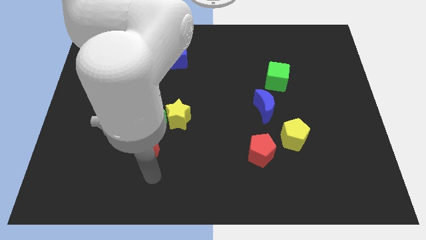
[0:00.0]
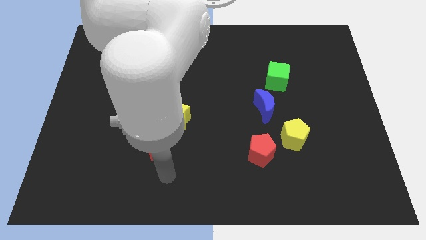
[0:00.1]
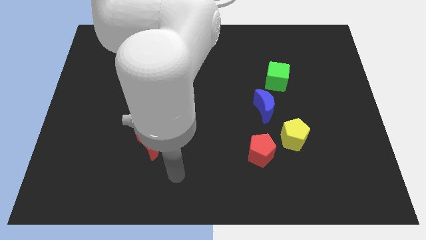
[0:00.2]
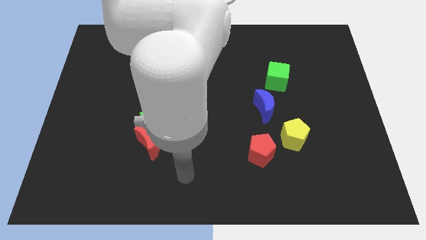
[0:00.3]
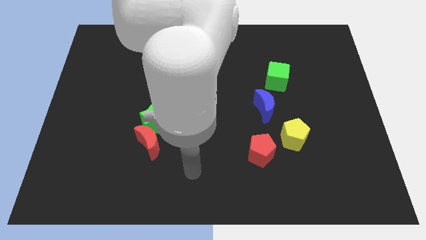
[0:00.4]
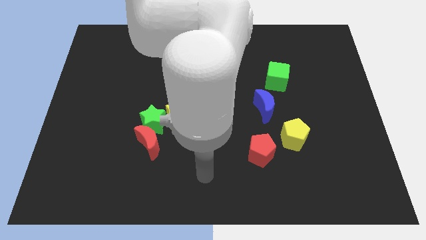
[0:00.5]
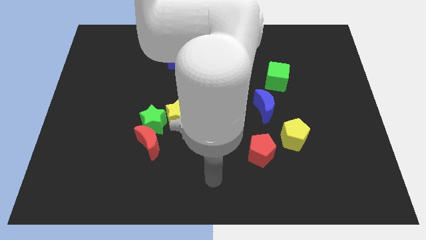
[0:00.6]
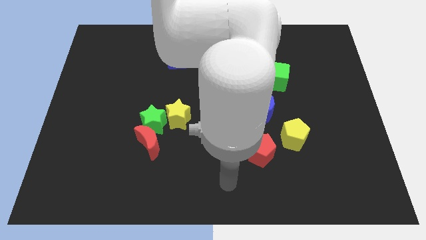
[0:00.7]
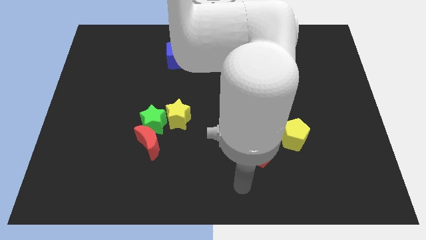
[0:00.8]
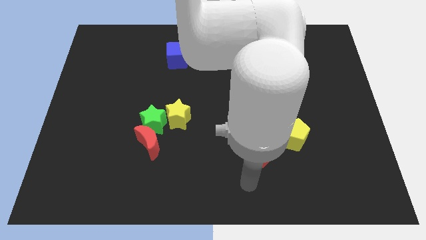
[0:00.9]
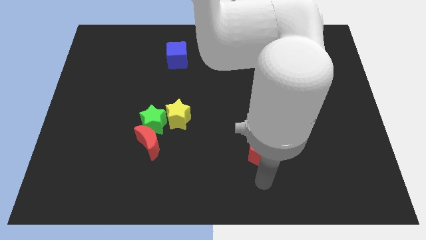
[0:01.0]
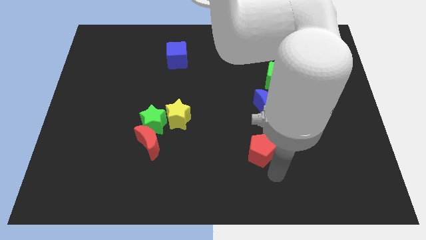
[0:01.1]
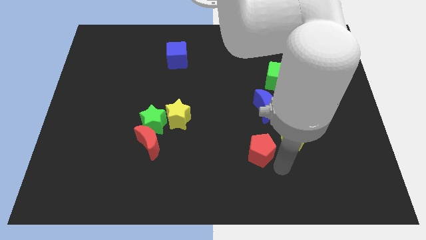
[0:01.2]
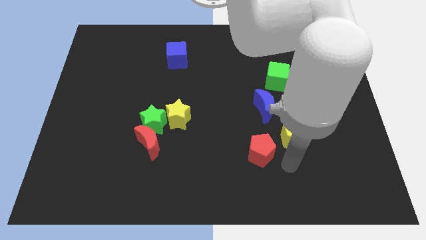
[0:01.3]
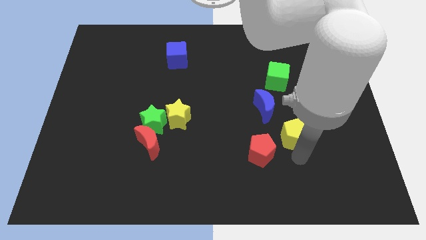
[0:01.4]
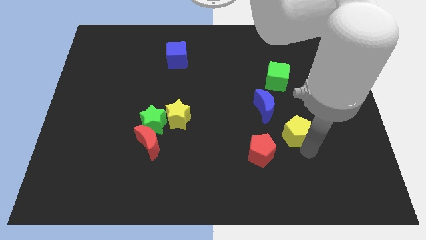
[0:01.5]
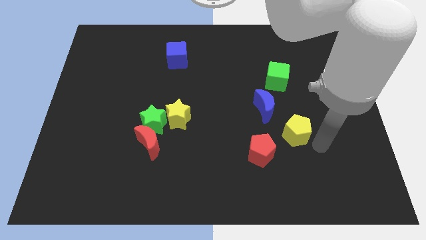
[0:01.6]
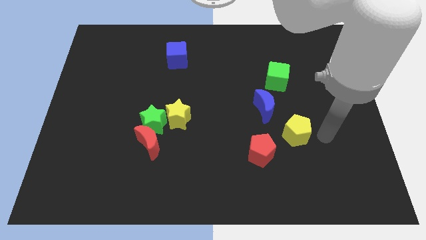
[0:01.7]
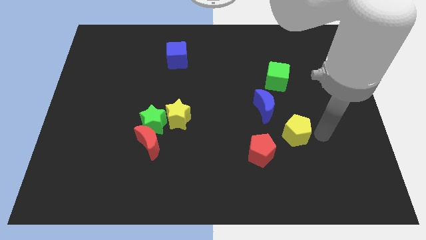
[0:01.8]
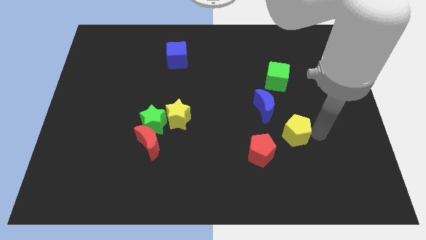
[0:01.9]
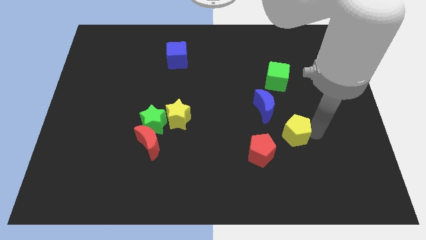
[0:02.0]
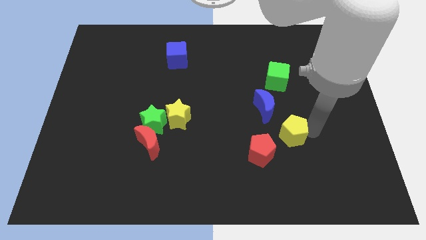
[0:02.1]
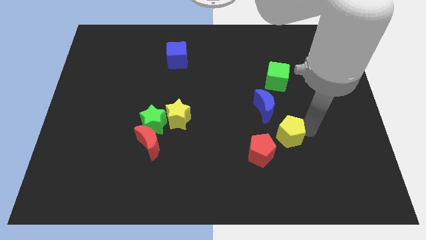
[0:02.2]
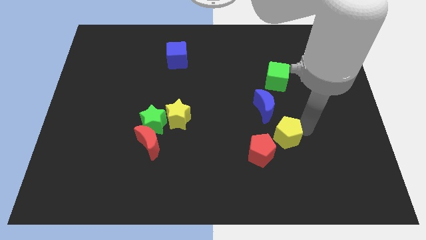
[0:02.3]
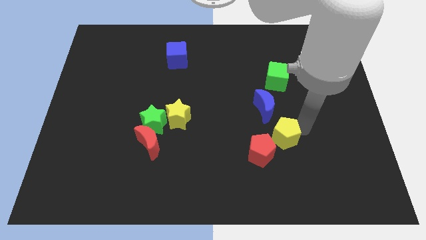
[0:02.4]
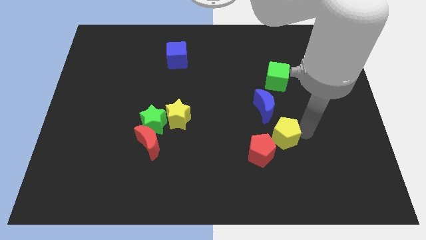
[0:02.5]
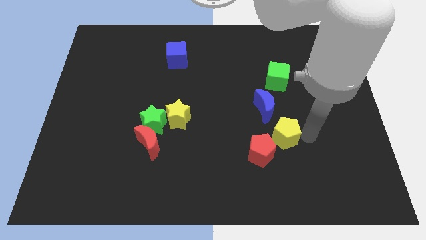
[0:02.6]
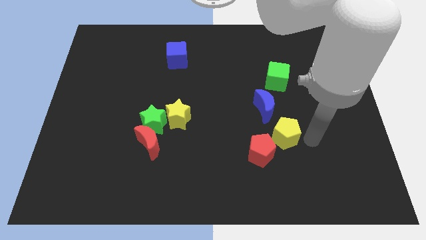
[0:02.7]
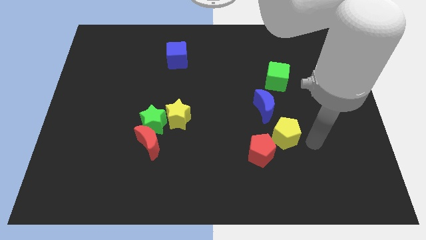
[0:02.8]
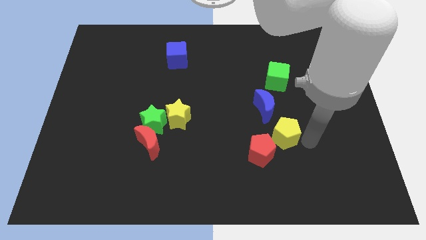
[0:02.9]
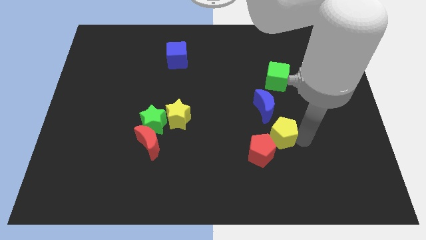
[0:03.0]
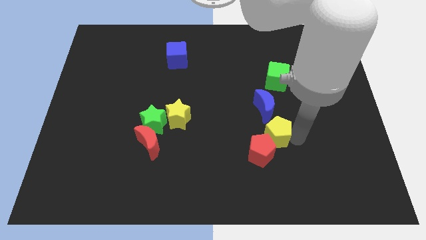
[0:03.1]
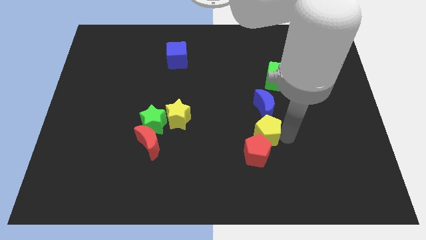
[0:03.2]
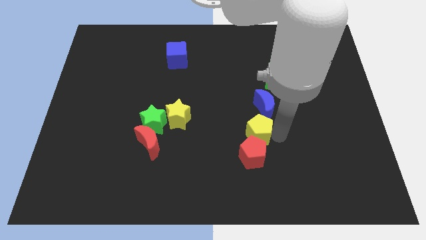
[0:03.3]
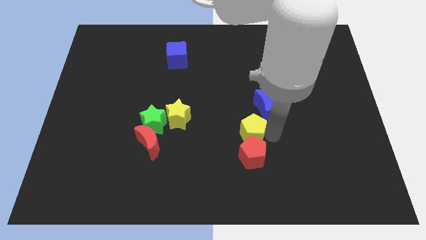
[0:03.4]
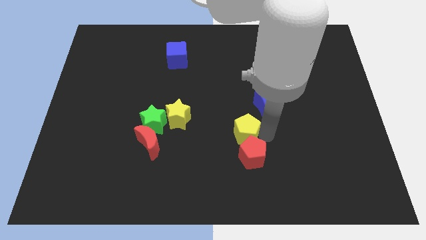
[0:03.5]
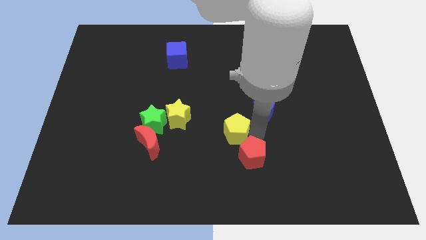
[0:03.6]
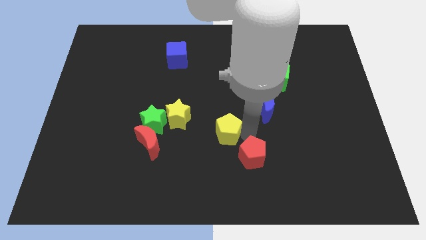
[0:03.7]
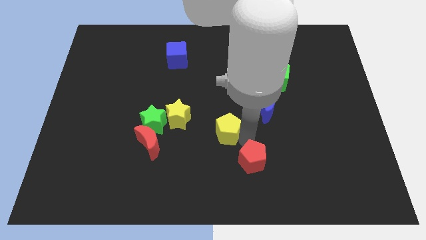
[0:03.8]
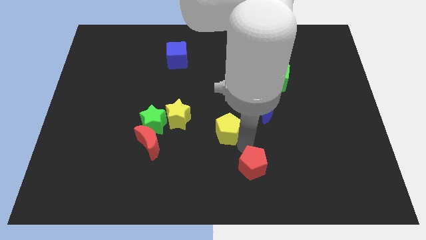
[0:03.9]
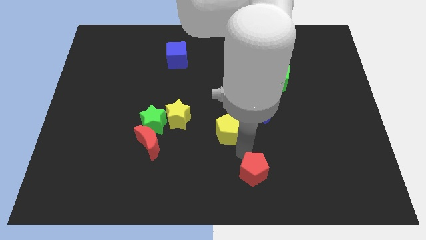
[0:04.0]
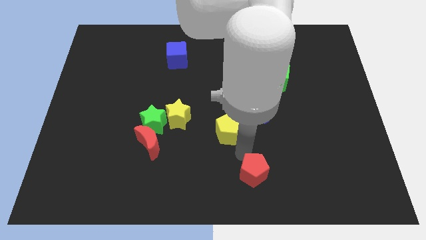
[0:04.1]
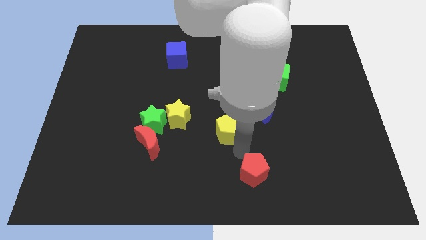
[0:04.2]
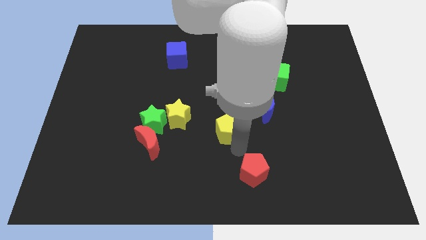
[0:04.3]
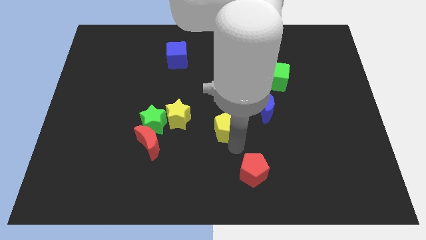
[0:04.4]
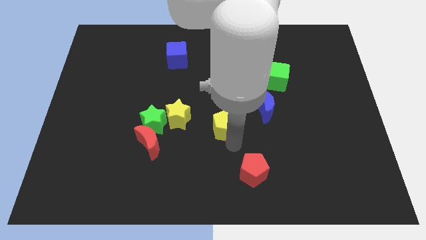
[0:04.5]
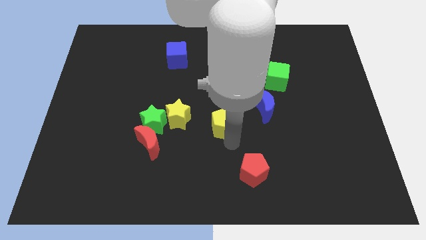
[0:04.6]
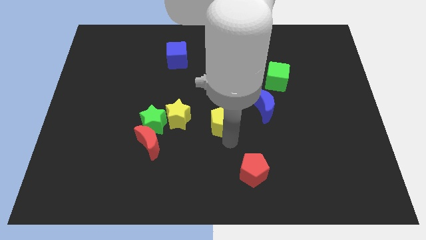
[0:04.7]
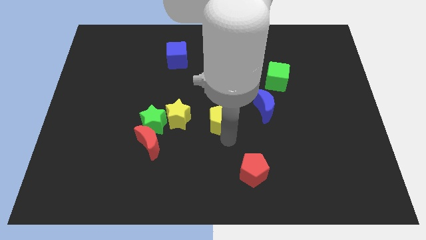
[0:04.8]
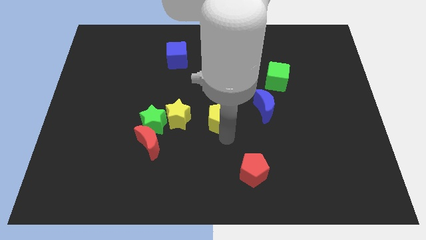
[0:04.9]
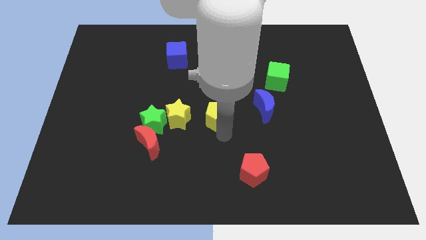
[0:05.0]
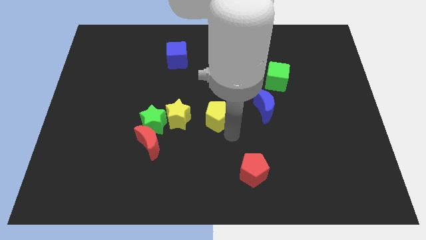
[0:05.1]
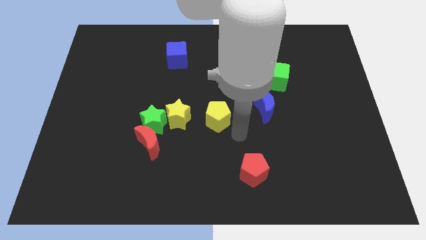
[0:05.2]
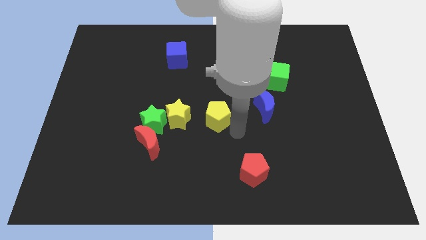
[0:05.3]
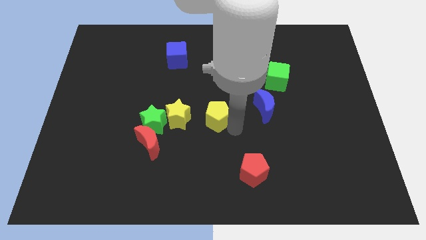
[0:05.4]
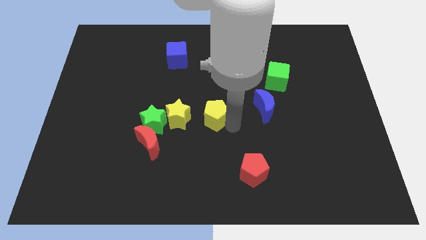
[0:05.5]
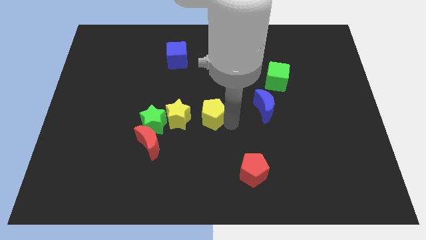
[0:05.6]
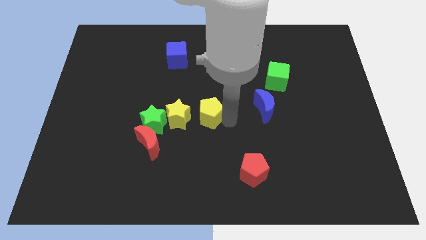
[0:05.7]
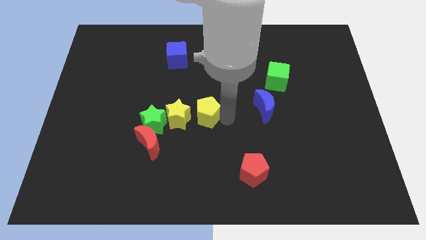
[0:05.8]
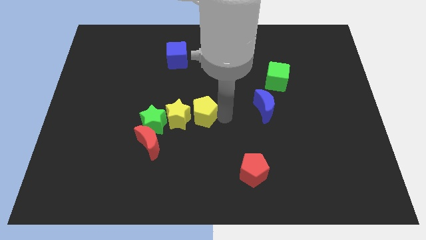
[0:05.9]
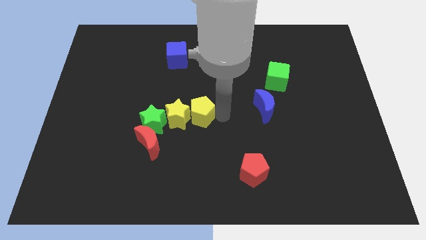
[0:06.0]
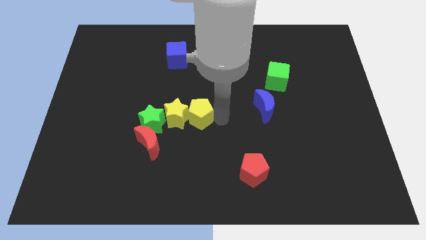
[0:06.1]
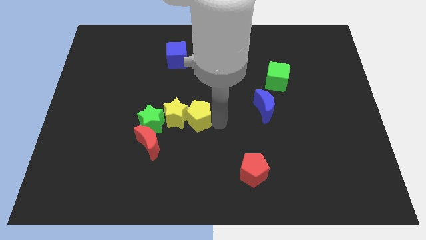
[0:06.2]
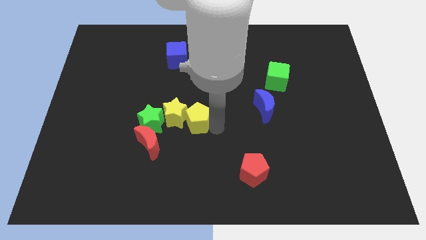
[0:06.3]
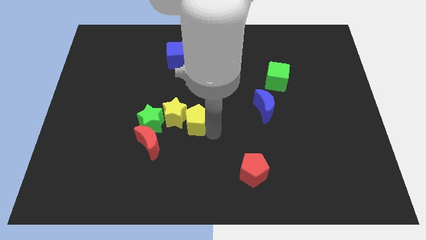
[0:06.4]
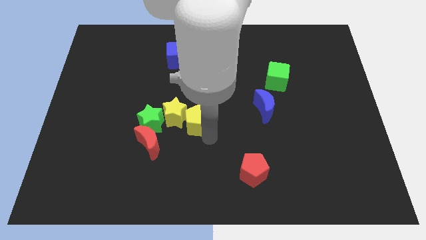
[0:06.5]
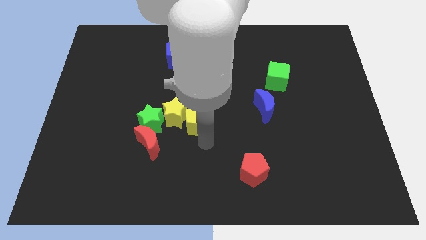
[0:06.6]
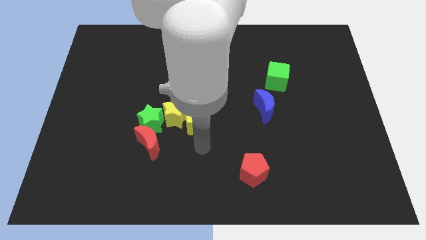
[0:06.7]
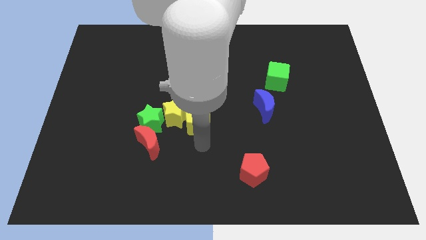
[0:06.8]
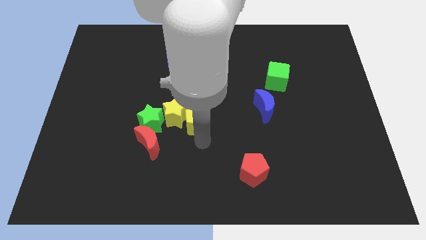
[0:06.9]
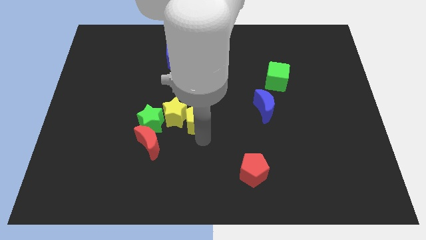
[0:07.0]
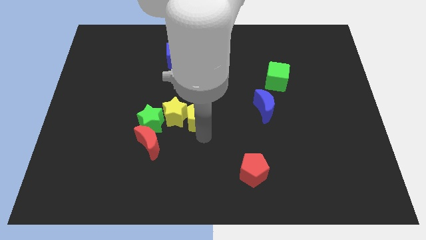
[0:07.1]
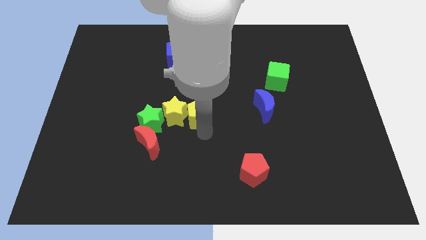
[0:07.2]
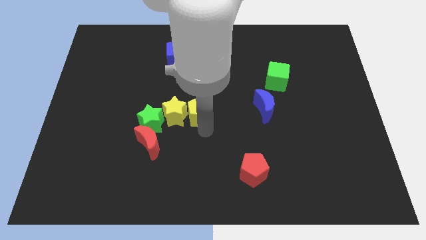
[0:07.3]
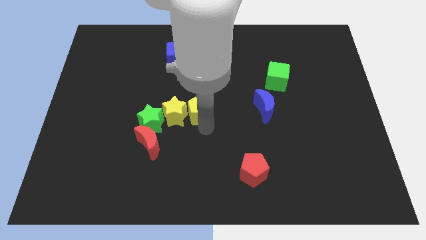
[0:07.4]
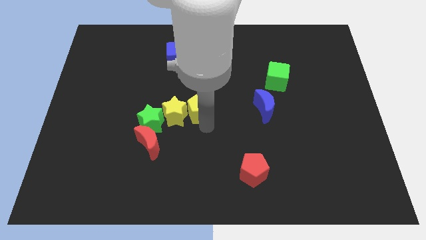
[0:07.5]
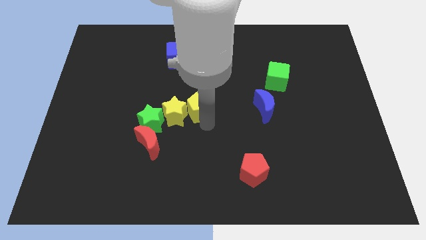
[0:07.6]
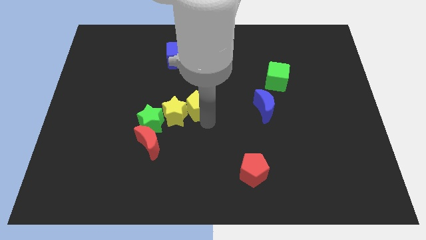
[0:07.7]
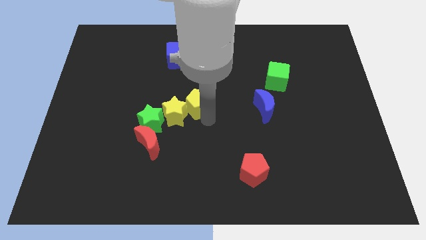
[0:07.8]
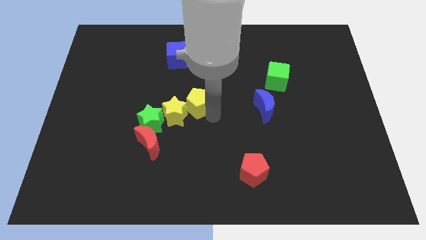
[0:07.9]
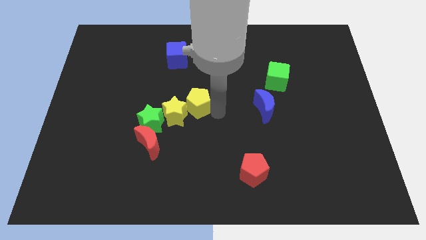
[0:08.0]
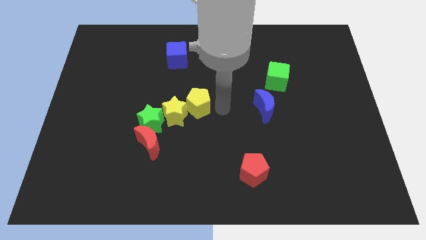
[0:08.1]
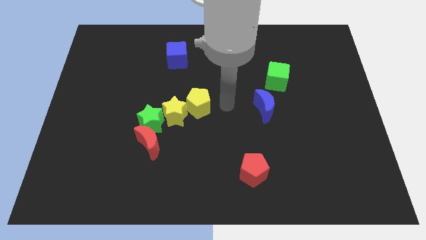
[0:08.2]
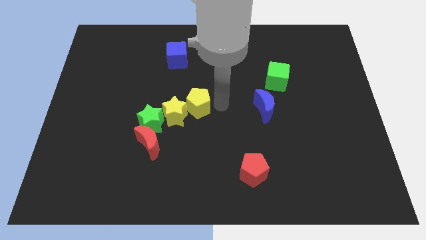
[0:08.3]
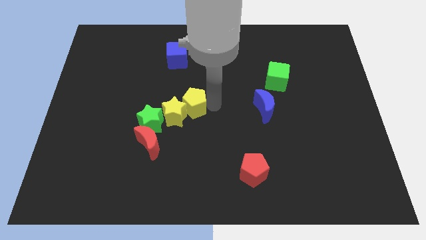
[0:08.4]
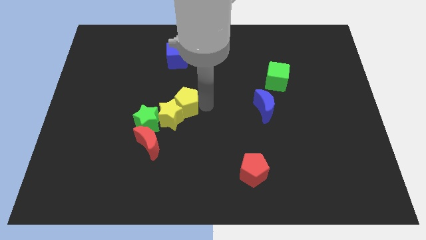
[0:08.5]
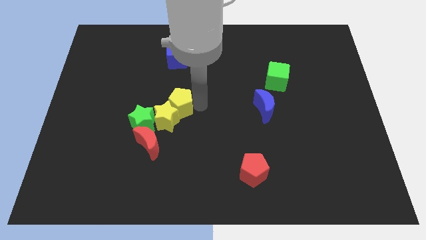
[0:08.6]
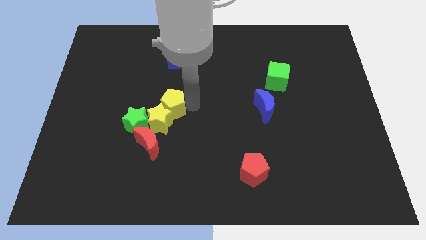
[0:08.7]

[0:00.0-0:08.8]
move the yellow pentagon to the top of the red moon
